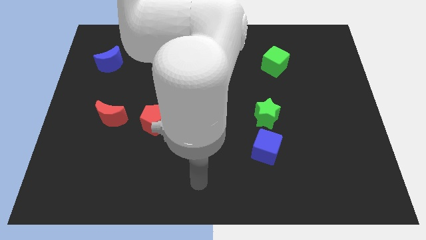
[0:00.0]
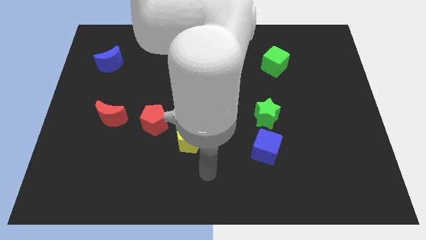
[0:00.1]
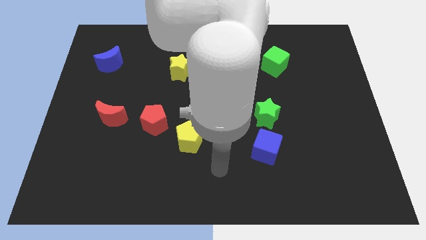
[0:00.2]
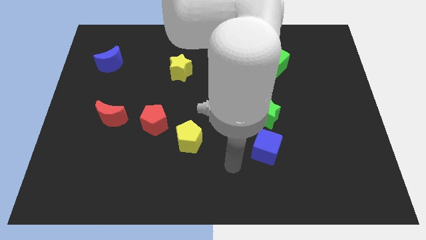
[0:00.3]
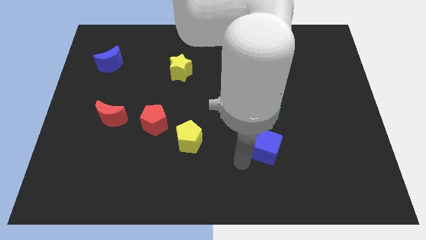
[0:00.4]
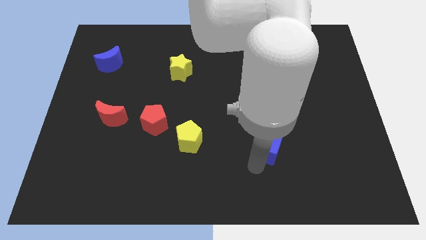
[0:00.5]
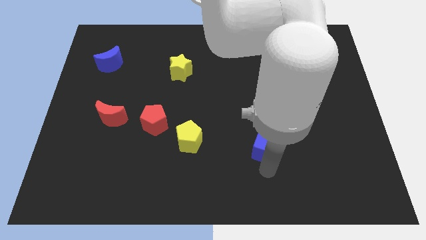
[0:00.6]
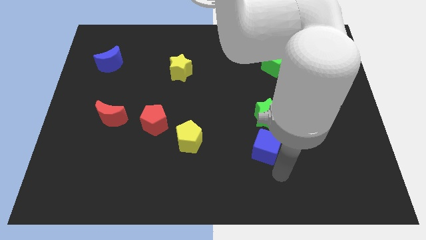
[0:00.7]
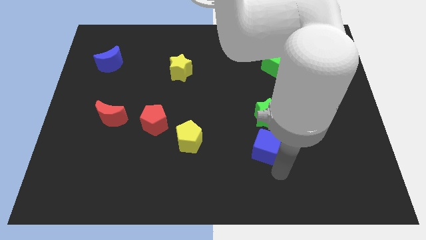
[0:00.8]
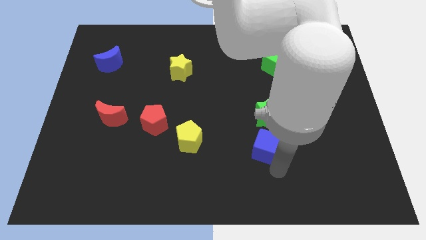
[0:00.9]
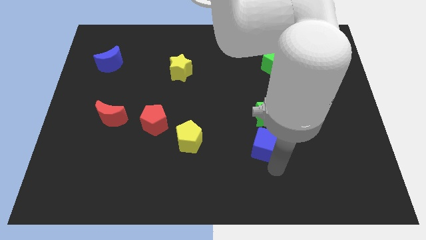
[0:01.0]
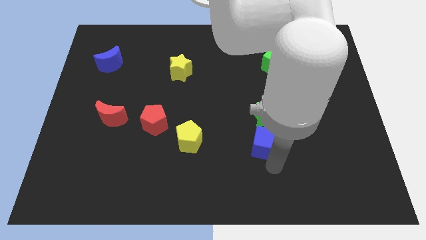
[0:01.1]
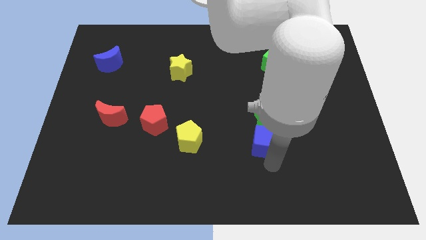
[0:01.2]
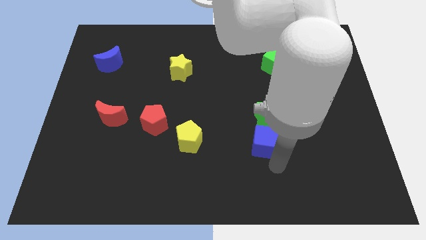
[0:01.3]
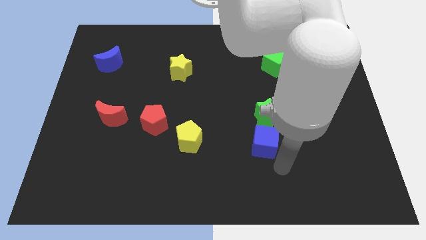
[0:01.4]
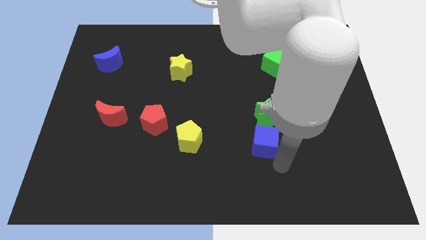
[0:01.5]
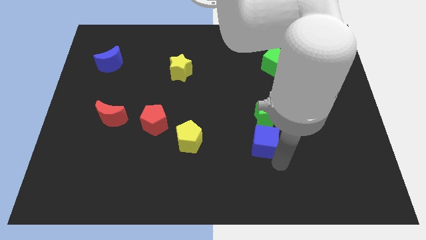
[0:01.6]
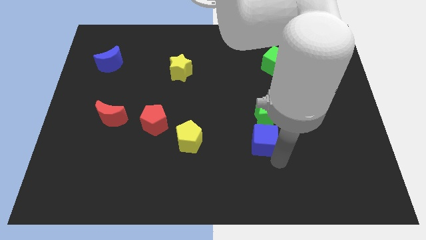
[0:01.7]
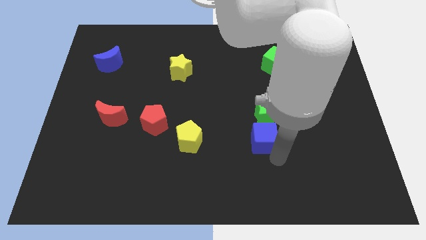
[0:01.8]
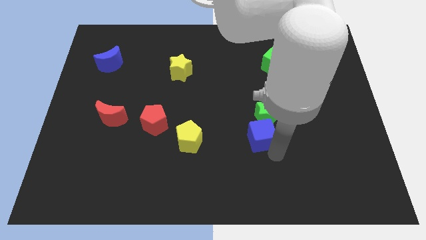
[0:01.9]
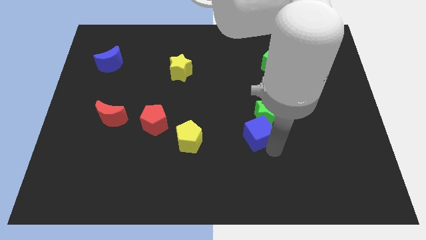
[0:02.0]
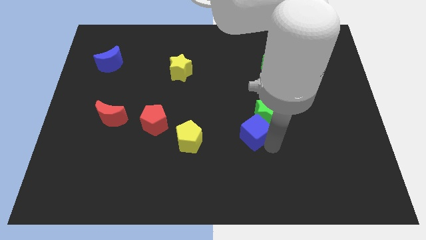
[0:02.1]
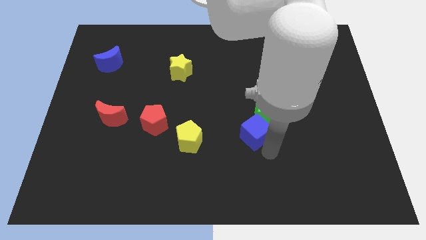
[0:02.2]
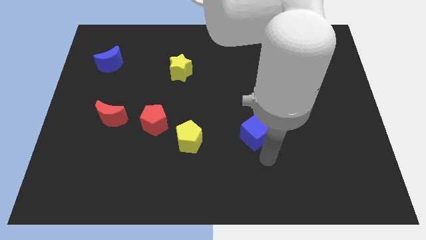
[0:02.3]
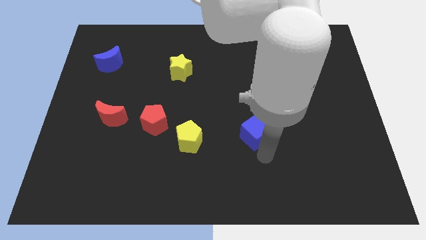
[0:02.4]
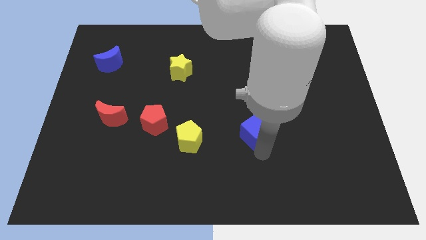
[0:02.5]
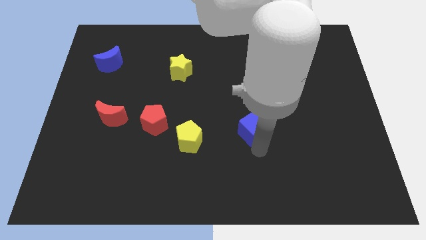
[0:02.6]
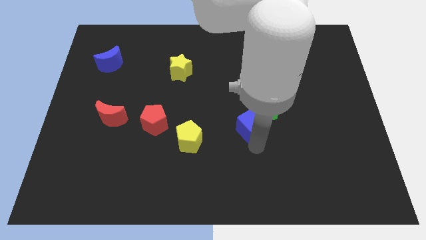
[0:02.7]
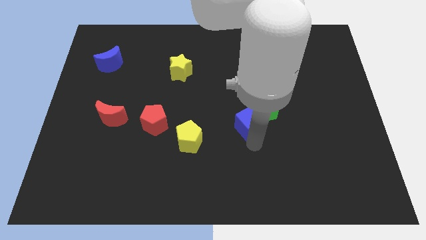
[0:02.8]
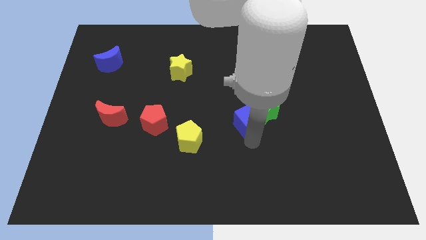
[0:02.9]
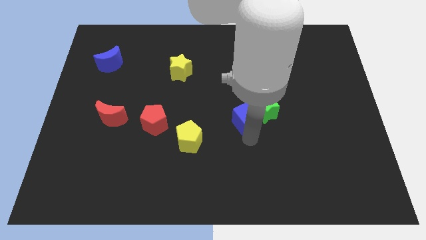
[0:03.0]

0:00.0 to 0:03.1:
push the blue cube up somewhat

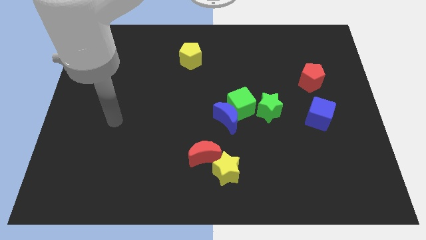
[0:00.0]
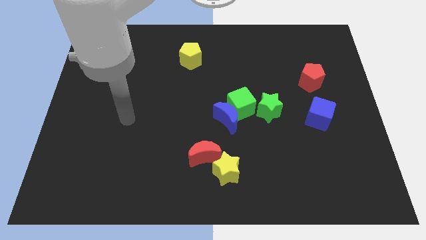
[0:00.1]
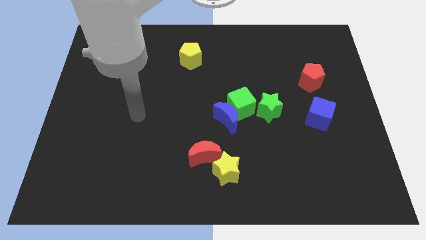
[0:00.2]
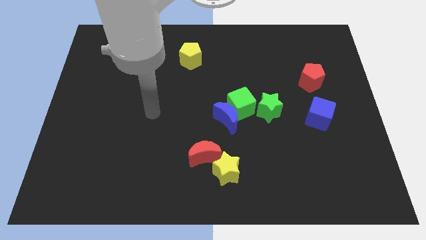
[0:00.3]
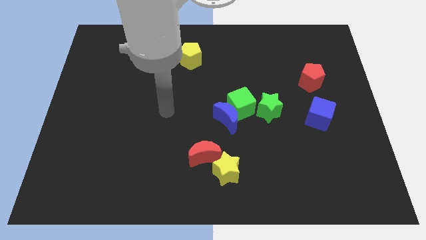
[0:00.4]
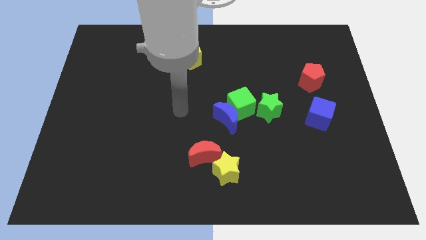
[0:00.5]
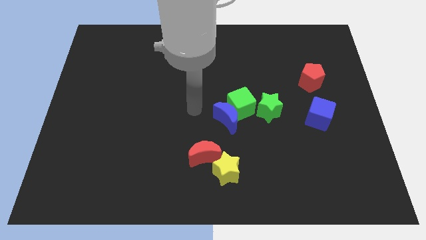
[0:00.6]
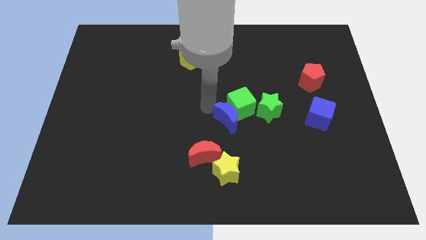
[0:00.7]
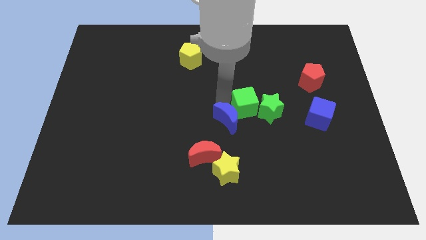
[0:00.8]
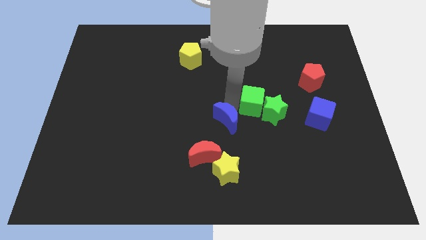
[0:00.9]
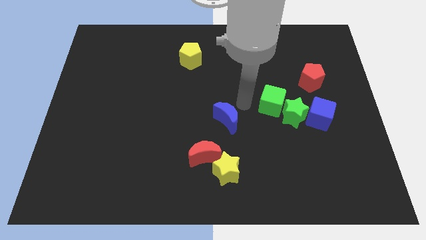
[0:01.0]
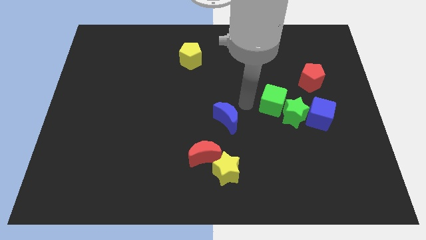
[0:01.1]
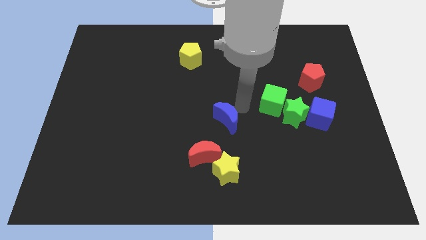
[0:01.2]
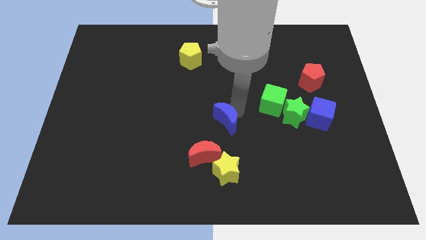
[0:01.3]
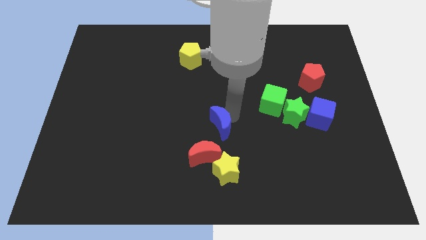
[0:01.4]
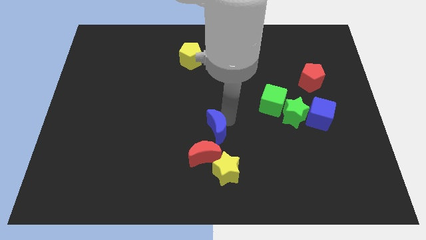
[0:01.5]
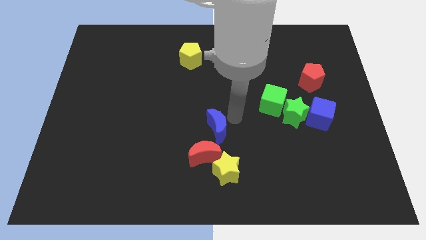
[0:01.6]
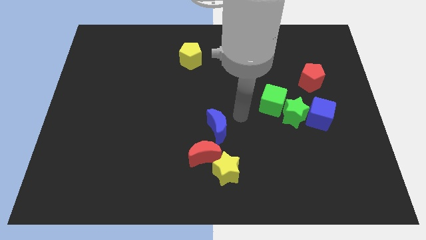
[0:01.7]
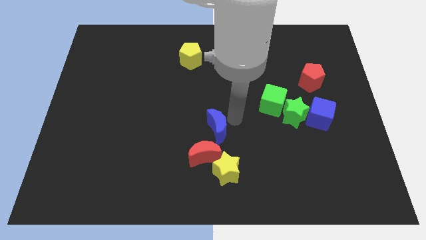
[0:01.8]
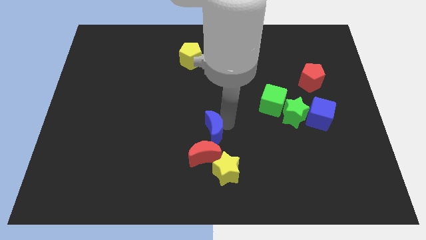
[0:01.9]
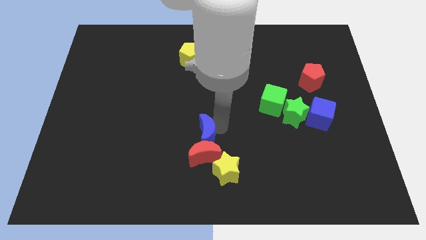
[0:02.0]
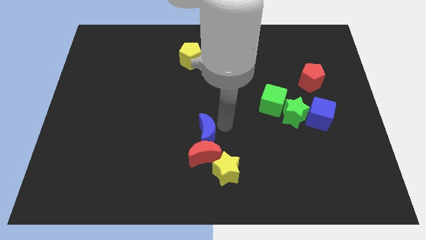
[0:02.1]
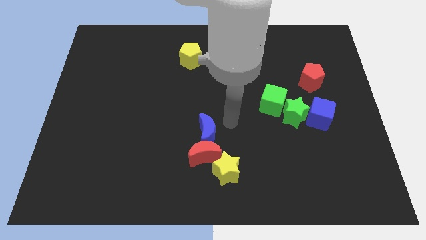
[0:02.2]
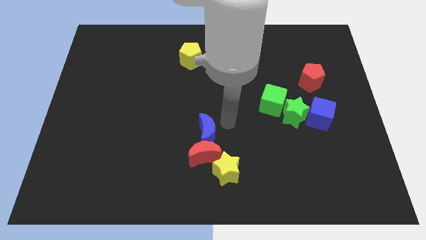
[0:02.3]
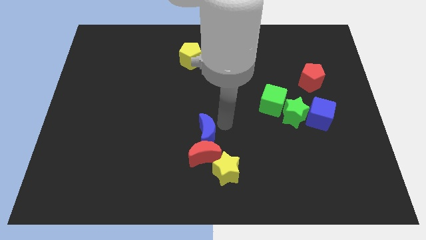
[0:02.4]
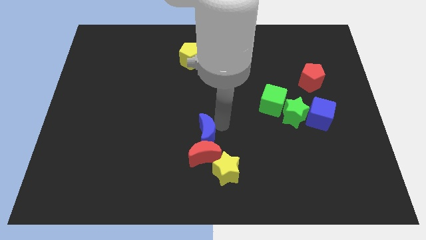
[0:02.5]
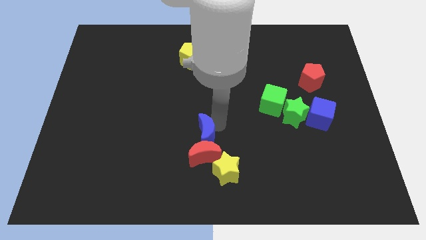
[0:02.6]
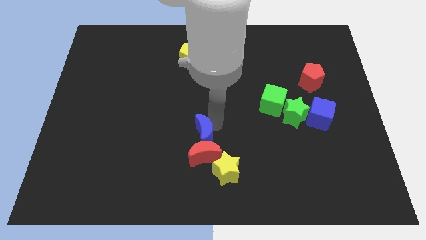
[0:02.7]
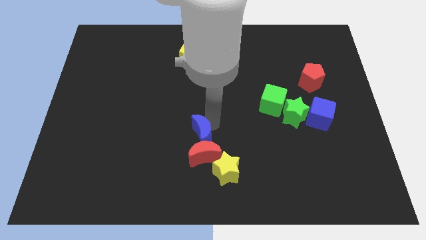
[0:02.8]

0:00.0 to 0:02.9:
slide the blue moon somewhat down and left diagonally

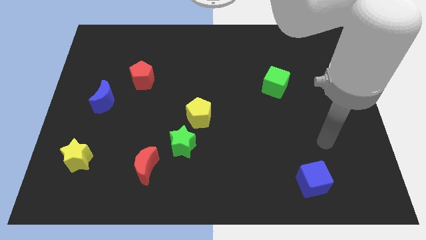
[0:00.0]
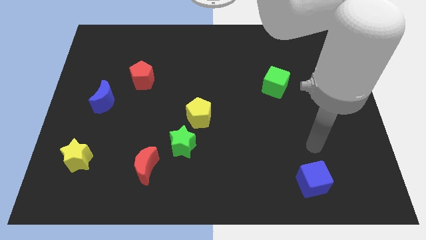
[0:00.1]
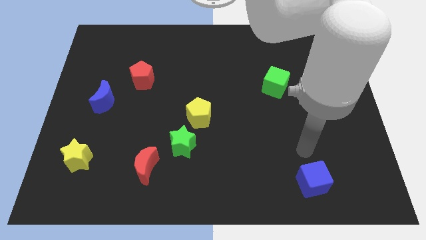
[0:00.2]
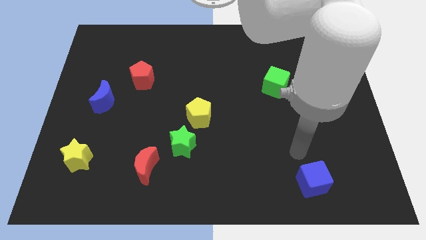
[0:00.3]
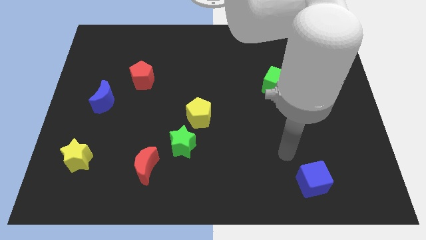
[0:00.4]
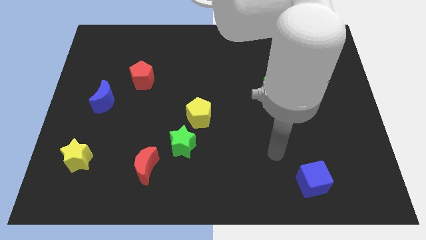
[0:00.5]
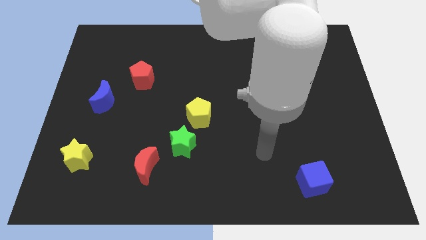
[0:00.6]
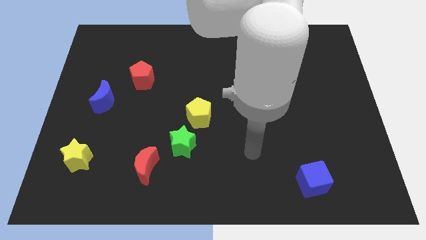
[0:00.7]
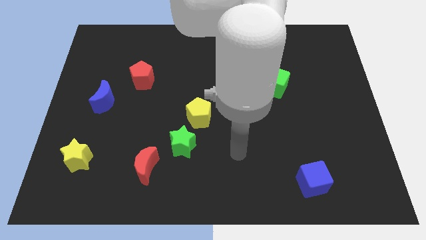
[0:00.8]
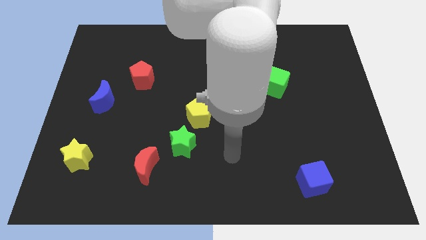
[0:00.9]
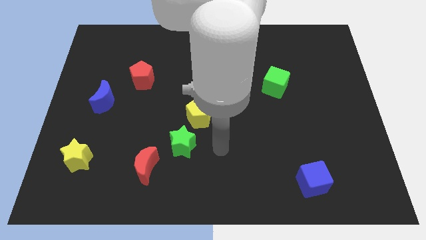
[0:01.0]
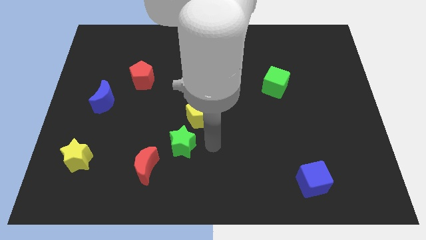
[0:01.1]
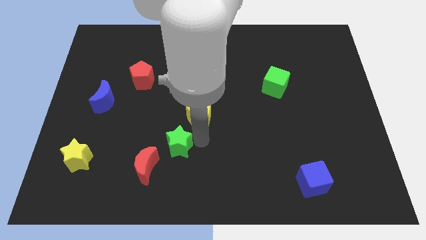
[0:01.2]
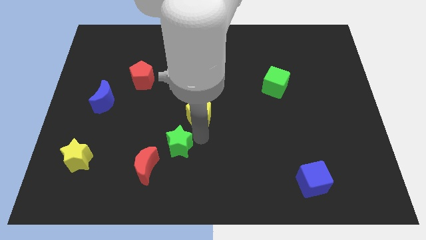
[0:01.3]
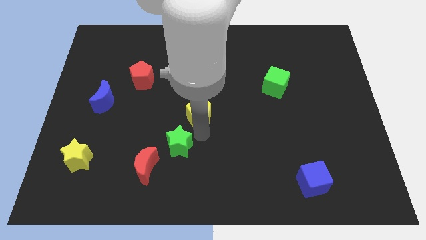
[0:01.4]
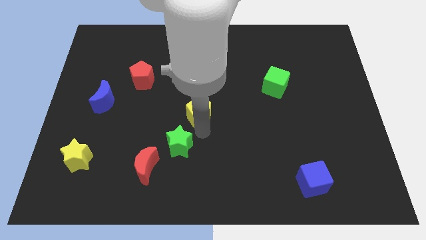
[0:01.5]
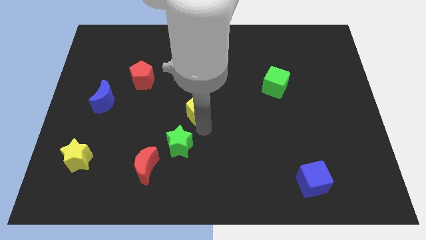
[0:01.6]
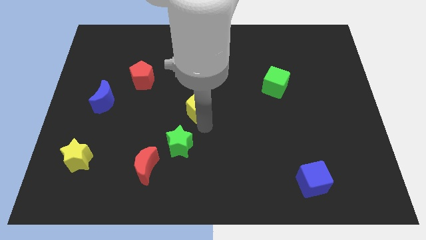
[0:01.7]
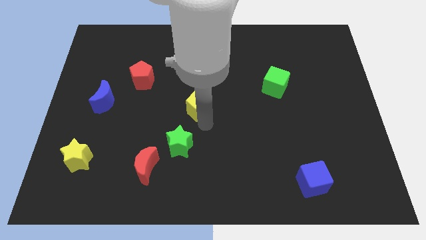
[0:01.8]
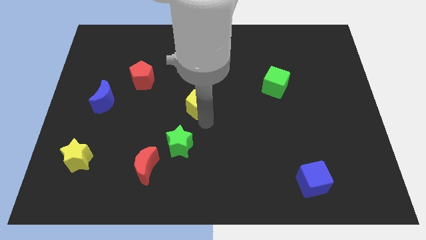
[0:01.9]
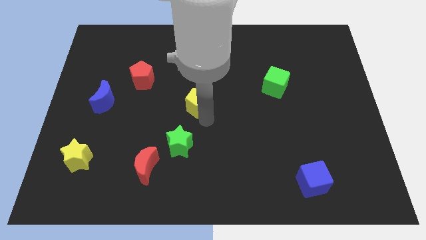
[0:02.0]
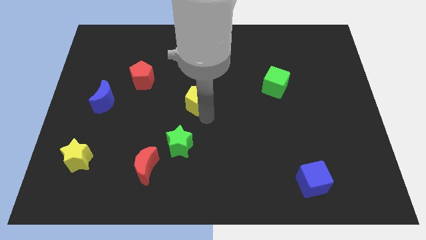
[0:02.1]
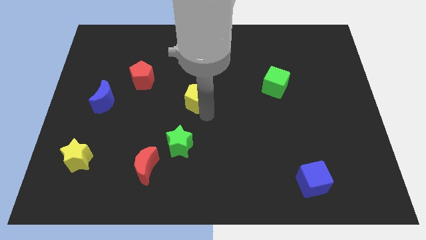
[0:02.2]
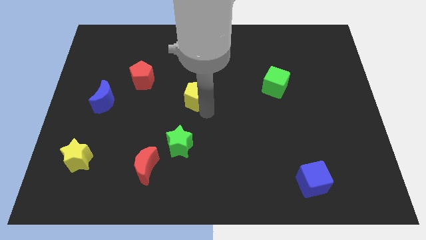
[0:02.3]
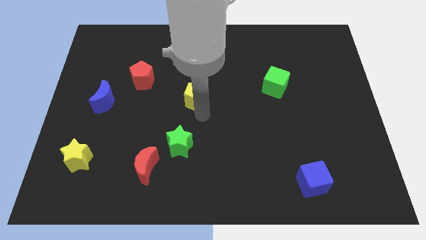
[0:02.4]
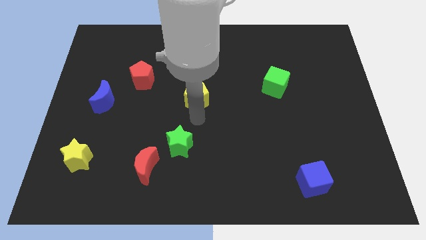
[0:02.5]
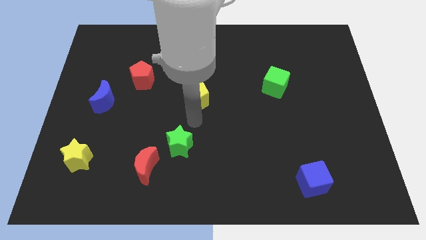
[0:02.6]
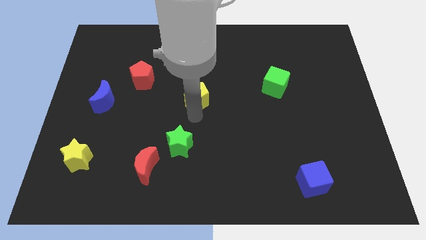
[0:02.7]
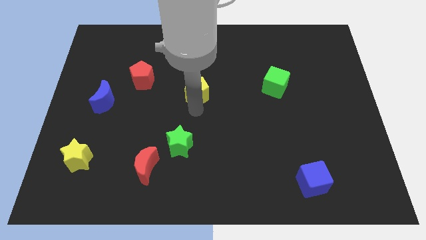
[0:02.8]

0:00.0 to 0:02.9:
slightly move the yellow pentagon up
